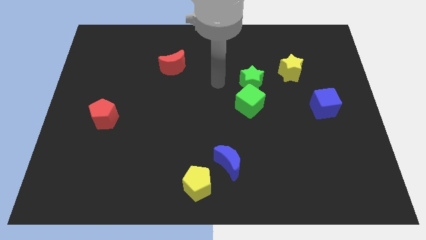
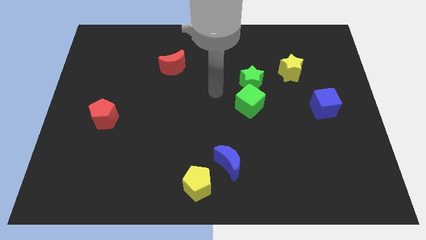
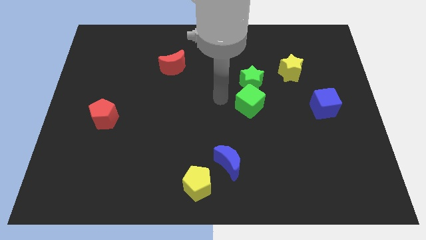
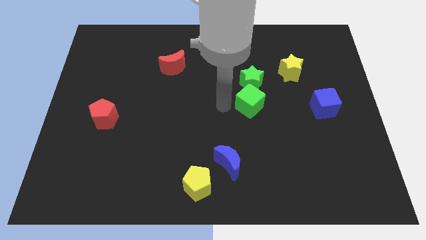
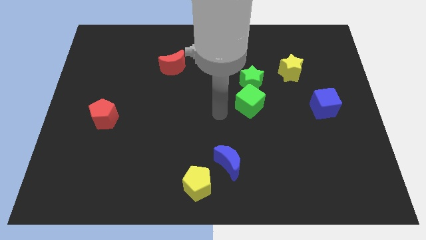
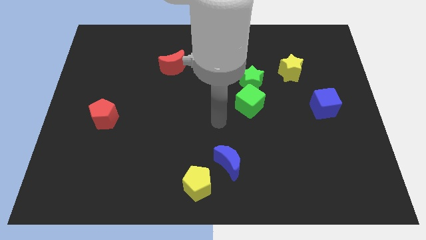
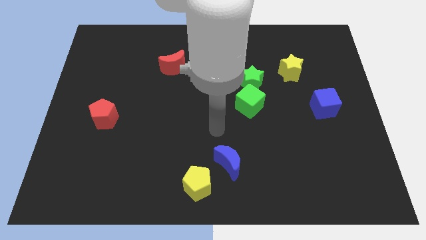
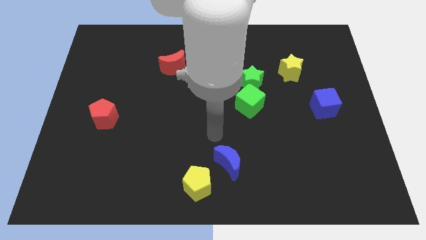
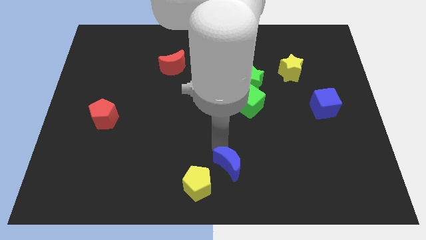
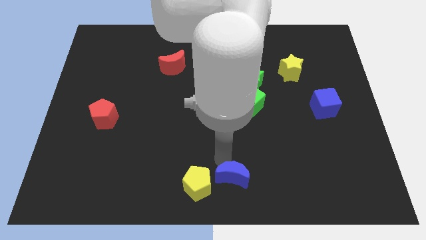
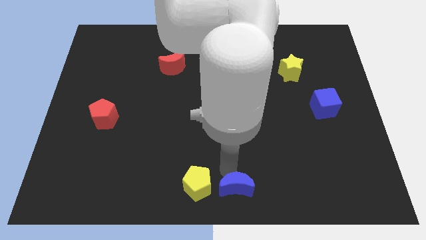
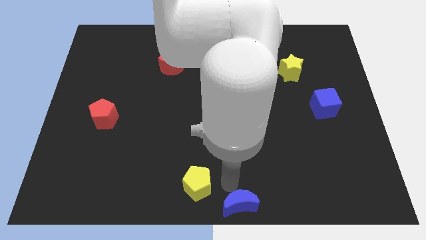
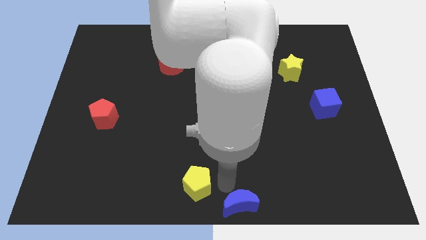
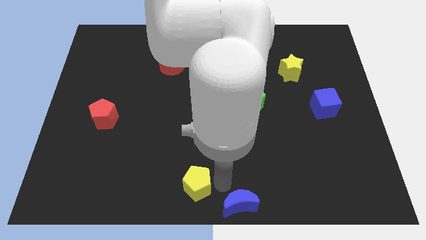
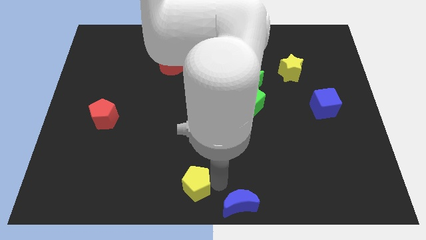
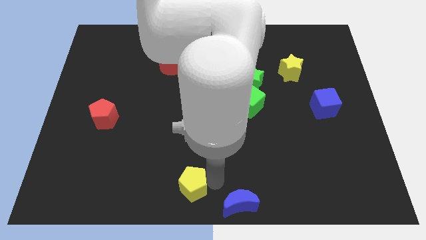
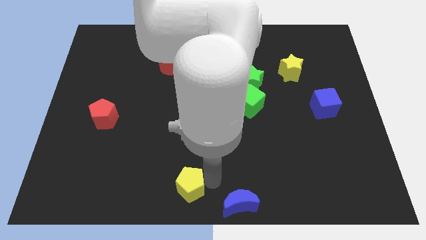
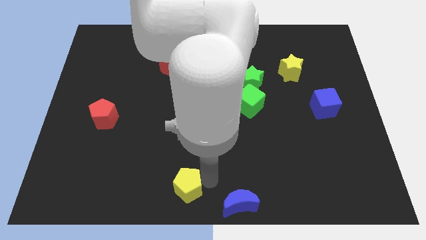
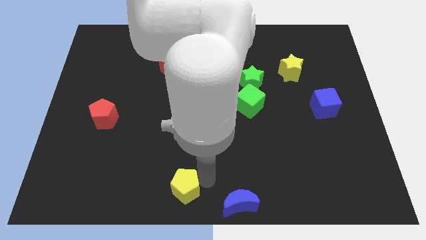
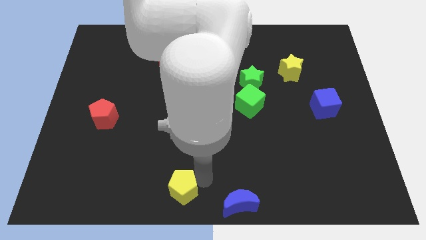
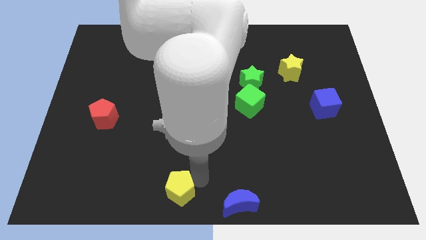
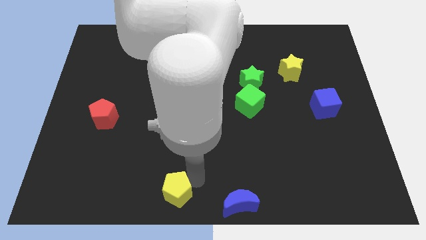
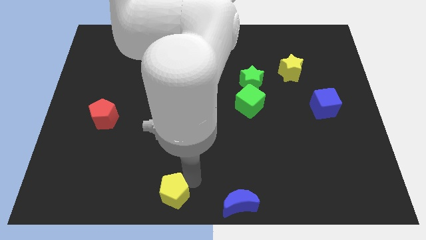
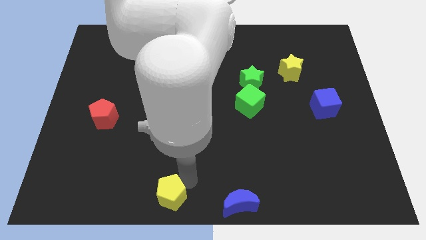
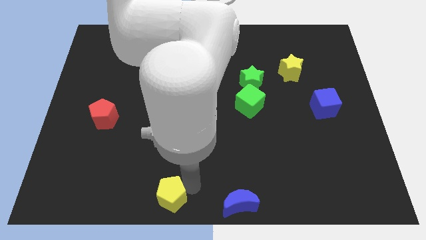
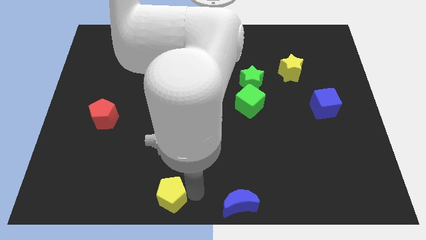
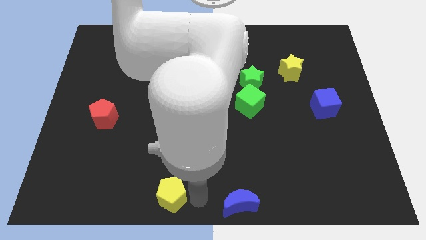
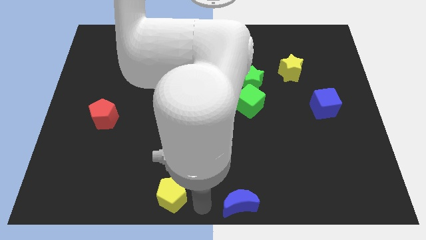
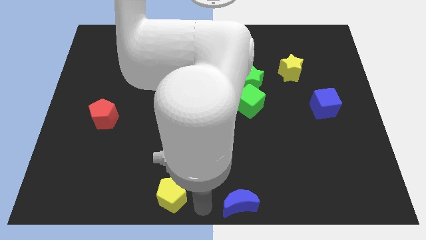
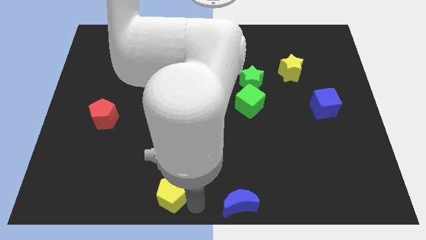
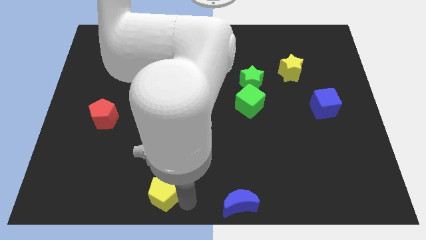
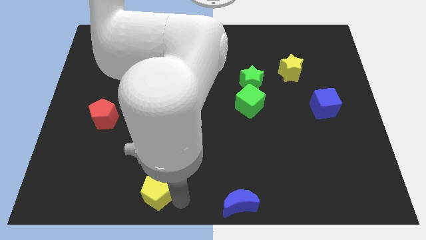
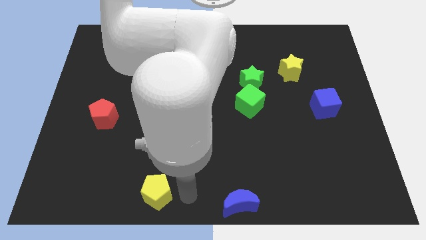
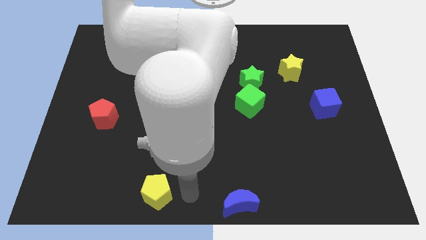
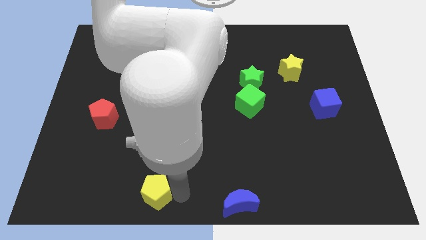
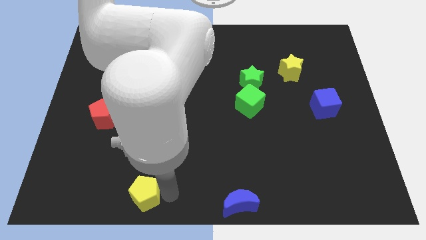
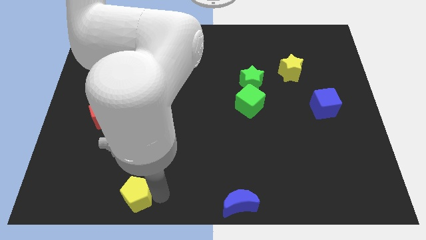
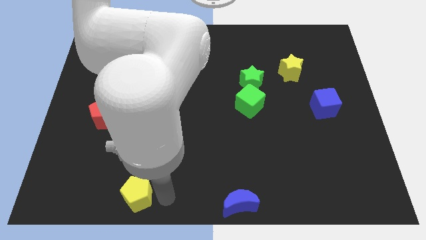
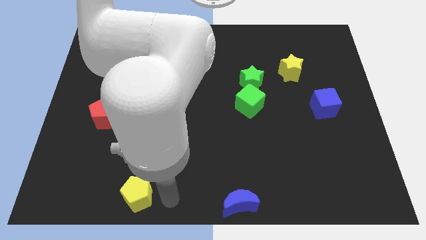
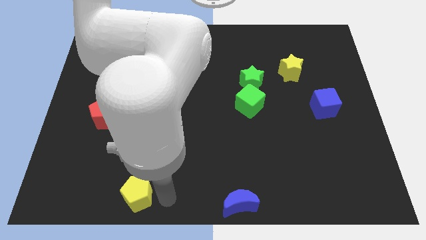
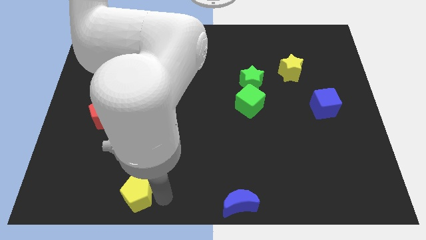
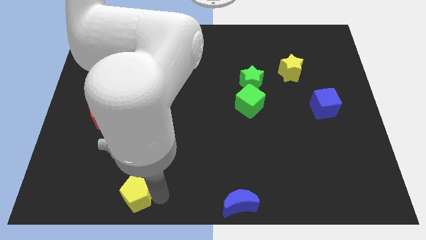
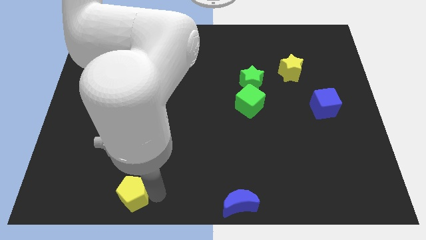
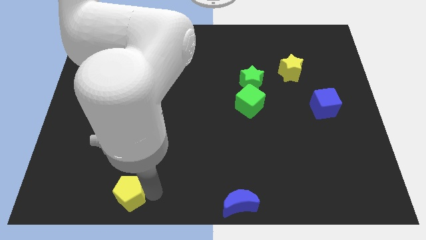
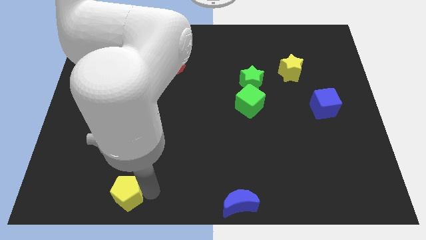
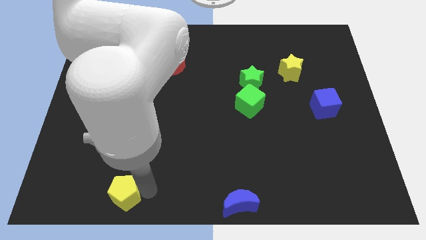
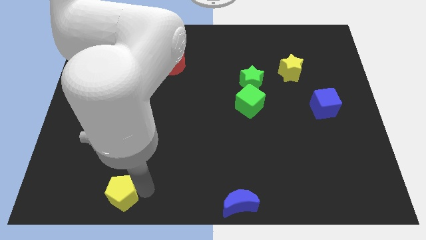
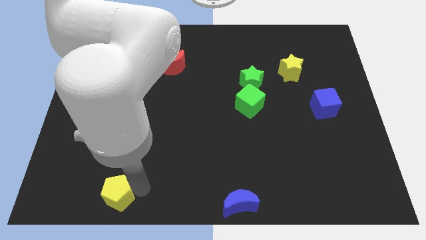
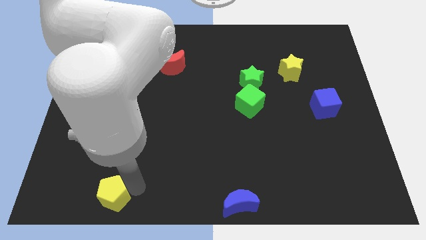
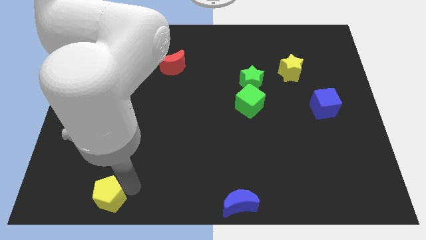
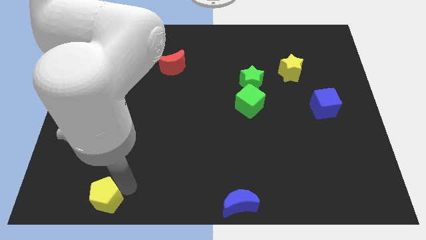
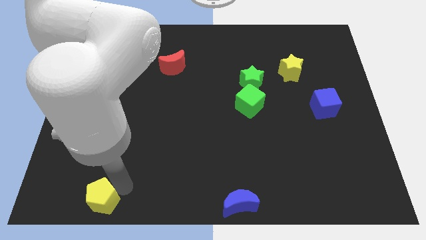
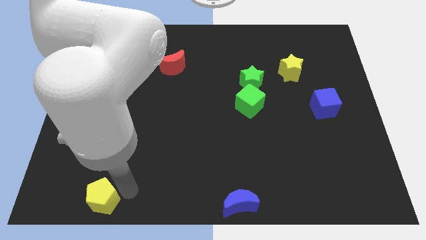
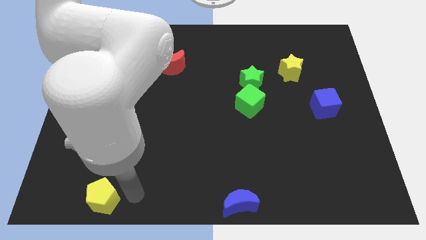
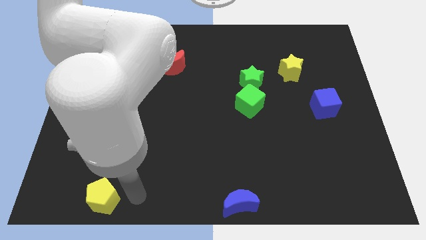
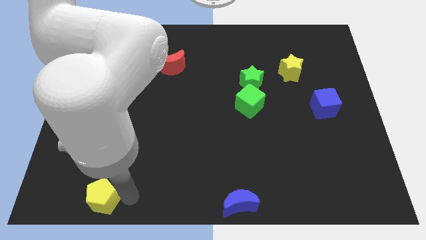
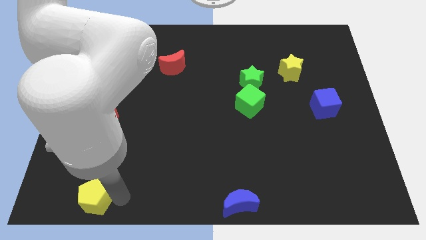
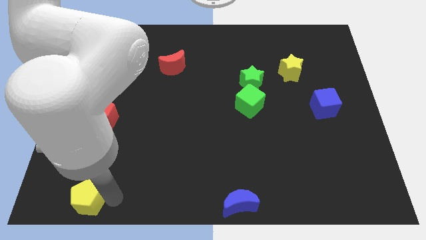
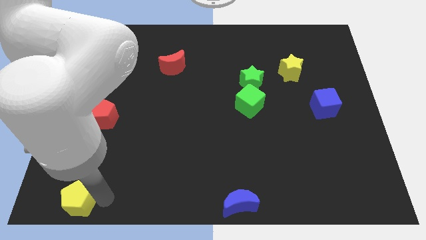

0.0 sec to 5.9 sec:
put the yellow pentagon to the lower left corner
